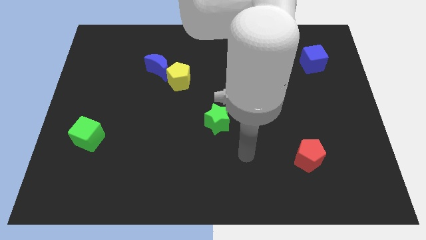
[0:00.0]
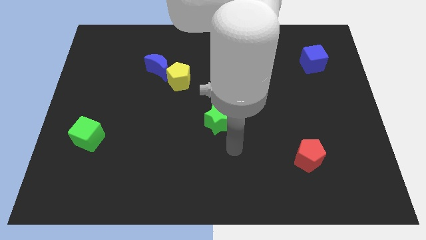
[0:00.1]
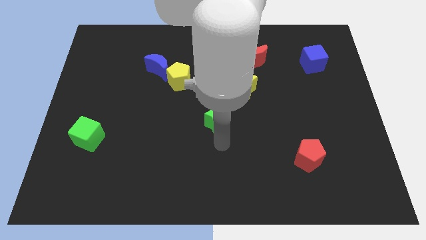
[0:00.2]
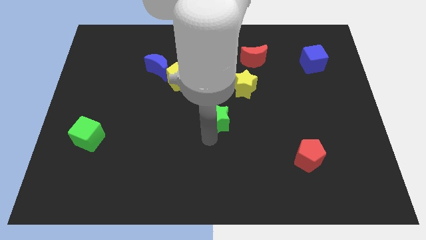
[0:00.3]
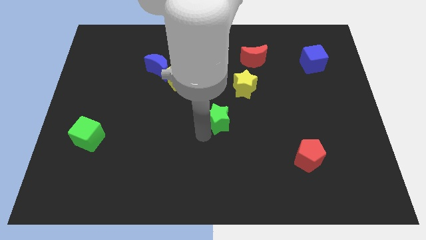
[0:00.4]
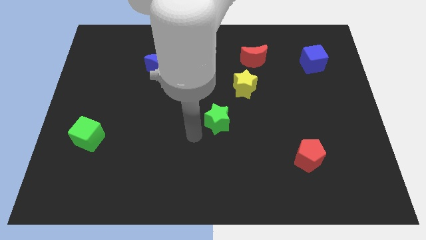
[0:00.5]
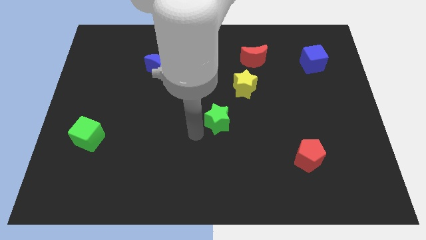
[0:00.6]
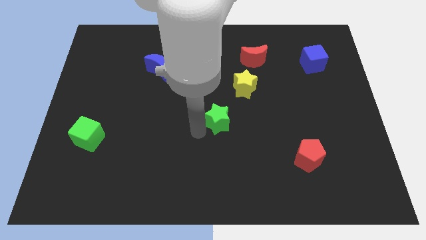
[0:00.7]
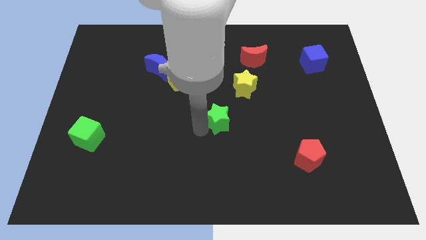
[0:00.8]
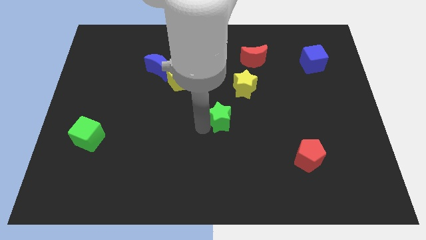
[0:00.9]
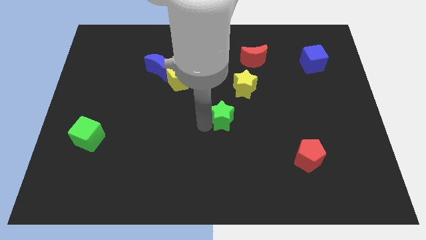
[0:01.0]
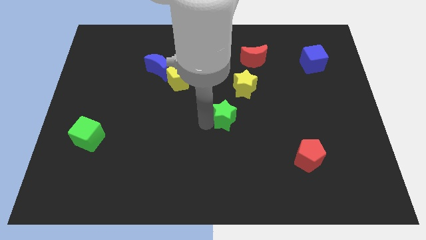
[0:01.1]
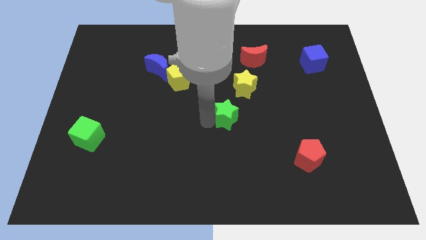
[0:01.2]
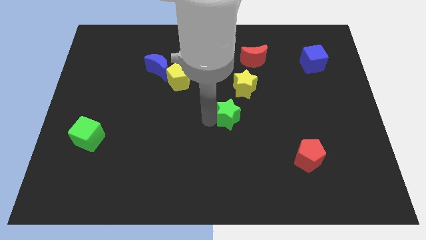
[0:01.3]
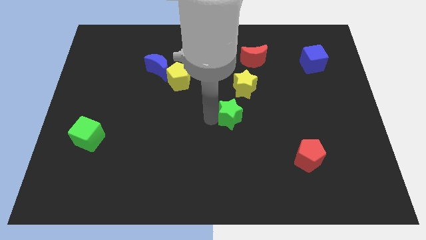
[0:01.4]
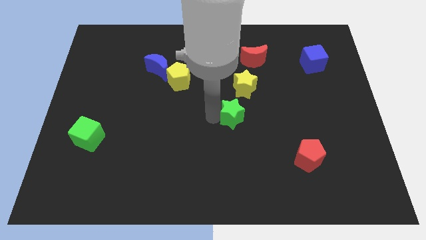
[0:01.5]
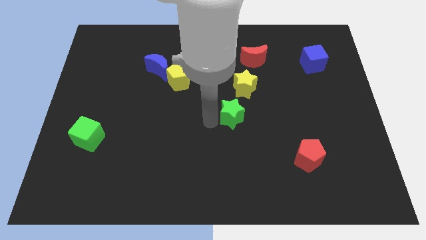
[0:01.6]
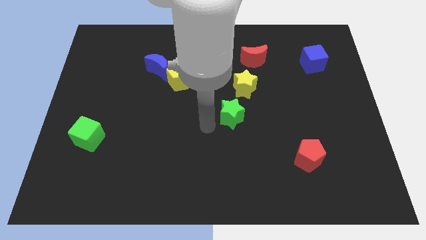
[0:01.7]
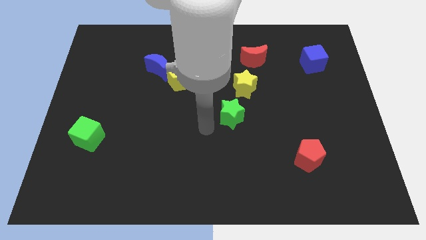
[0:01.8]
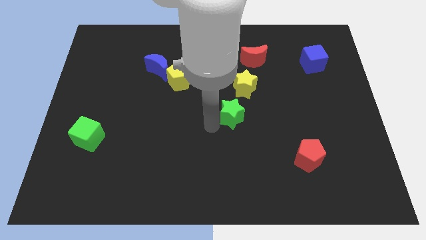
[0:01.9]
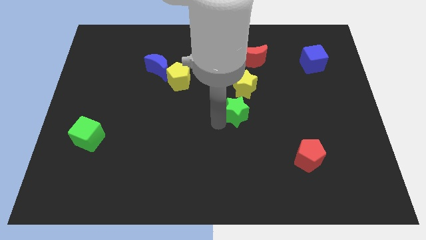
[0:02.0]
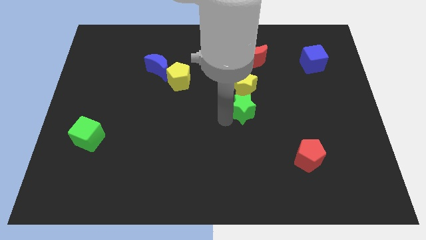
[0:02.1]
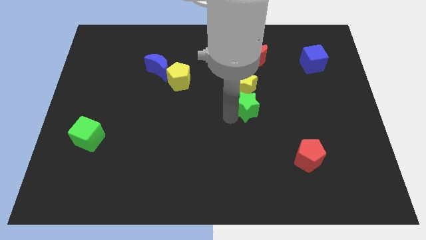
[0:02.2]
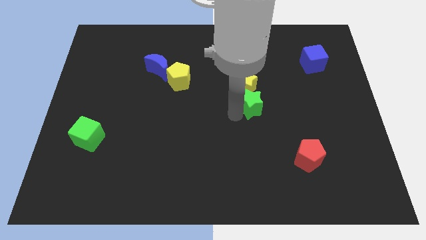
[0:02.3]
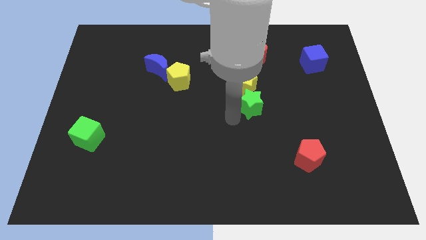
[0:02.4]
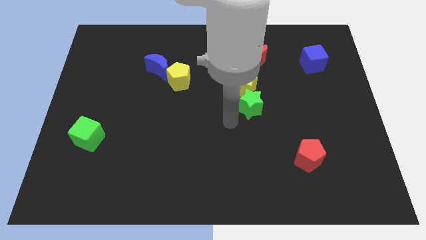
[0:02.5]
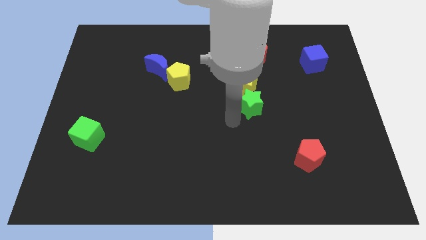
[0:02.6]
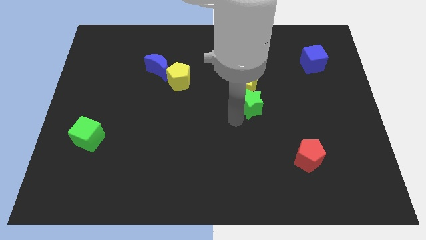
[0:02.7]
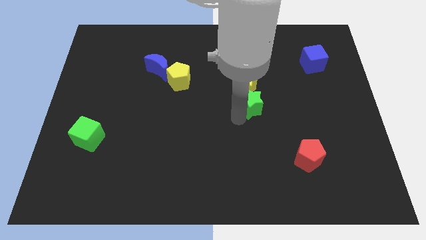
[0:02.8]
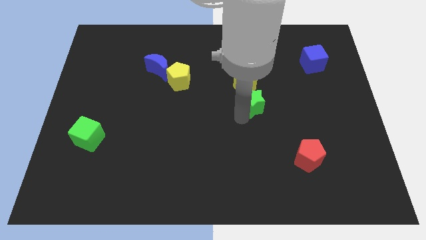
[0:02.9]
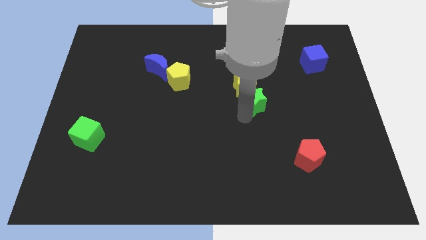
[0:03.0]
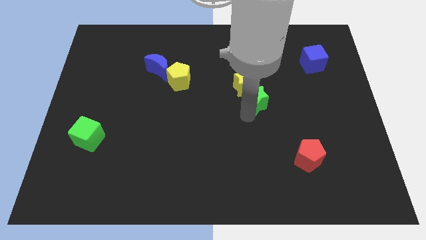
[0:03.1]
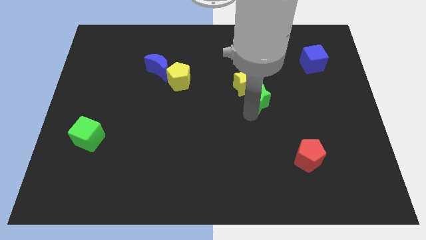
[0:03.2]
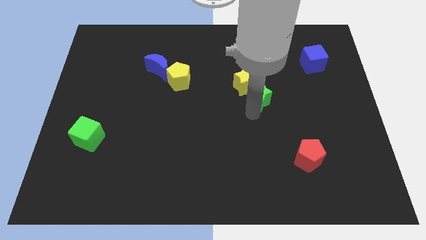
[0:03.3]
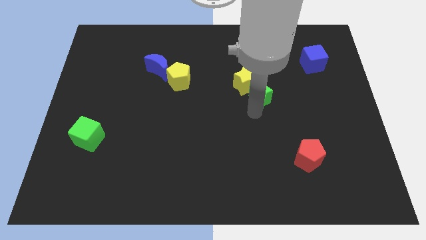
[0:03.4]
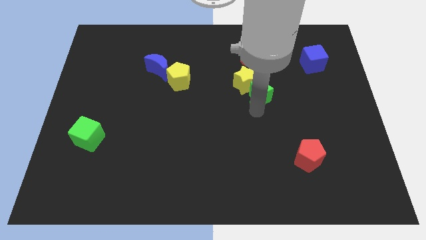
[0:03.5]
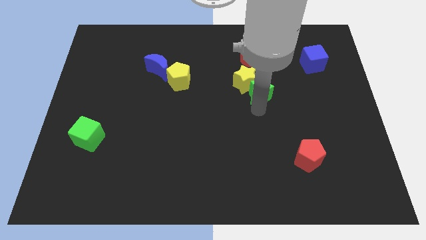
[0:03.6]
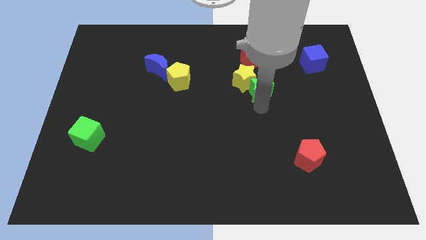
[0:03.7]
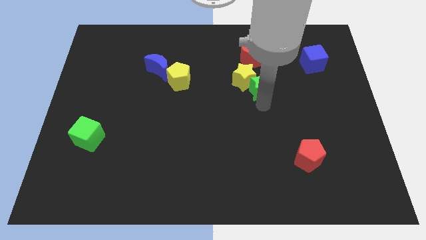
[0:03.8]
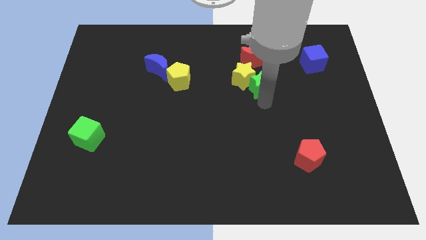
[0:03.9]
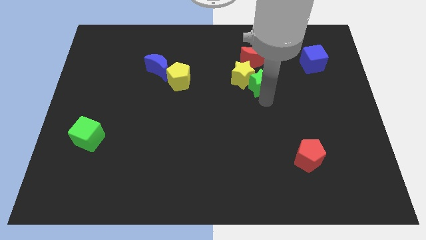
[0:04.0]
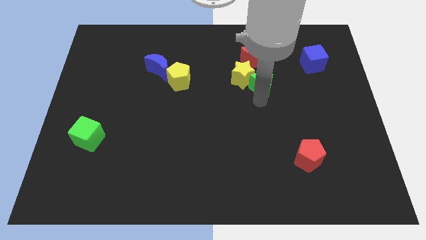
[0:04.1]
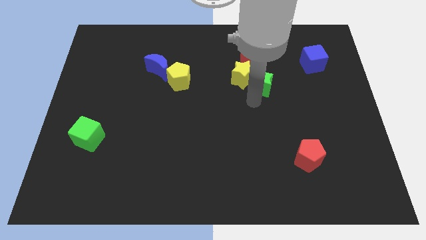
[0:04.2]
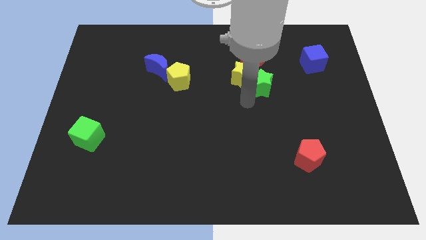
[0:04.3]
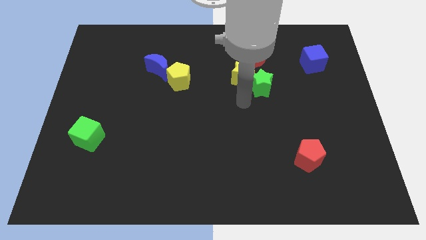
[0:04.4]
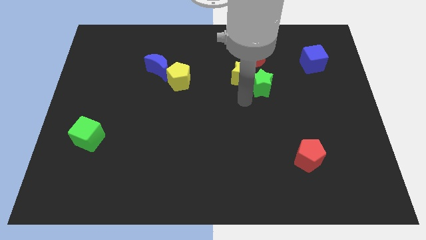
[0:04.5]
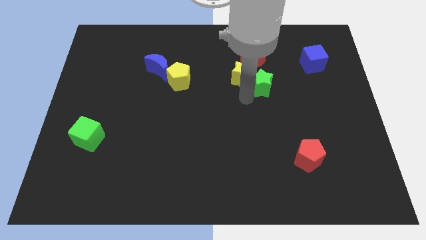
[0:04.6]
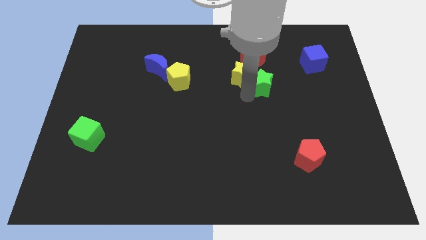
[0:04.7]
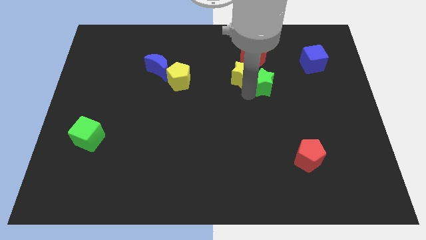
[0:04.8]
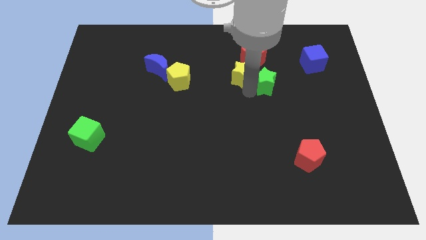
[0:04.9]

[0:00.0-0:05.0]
push the green star diagonally down and to the right of the red moon

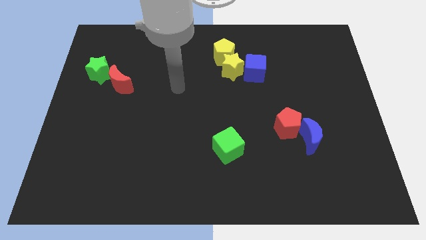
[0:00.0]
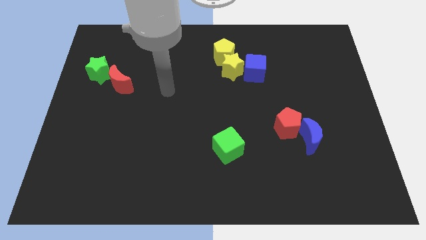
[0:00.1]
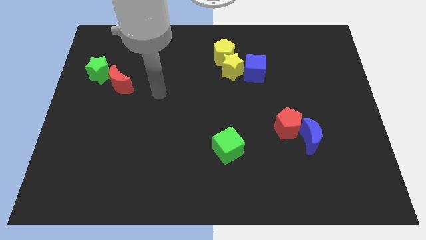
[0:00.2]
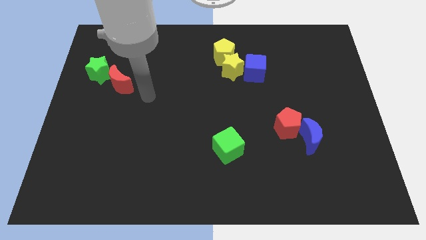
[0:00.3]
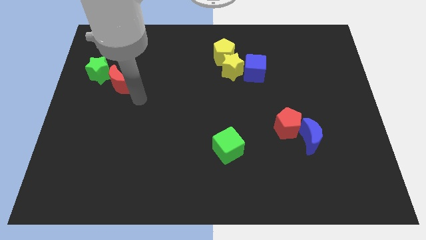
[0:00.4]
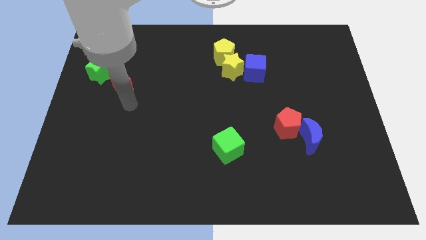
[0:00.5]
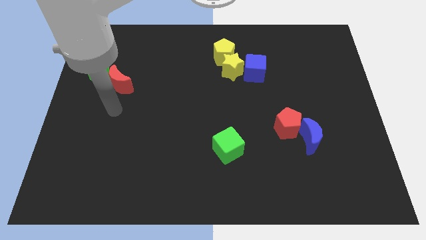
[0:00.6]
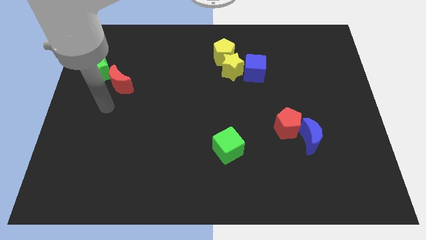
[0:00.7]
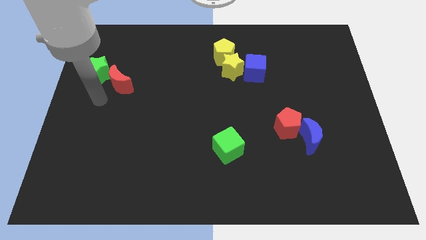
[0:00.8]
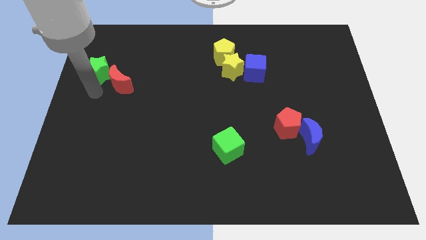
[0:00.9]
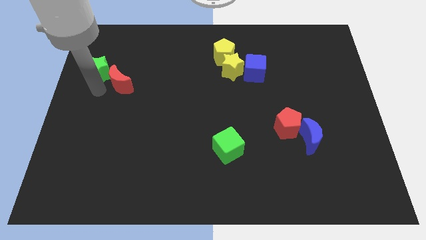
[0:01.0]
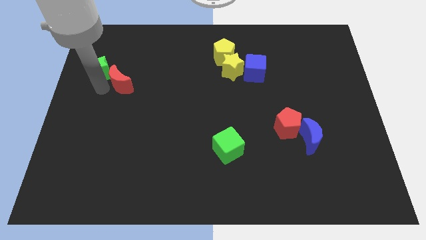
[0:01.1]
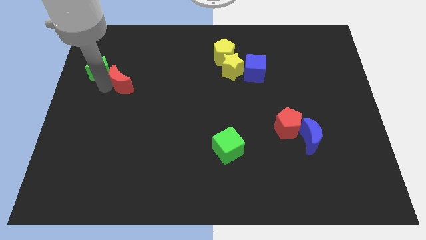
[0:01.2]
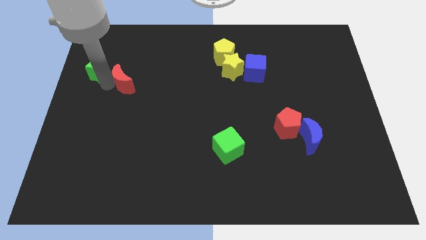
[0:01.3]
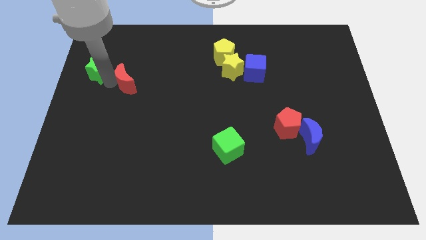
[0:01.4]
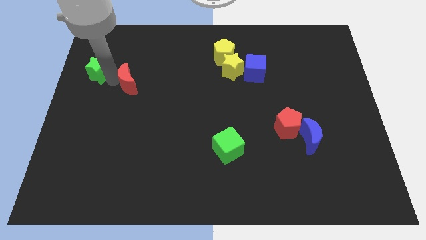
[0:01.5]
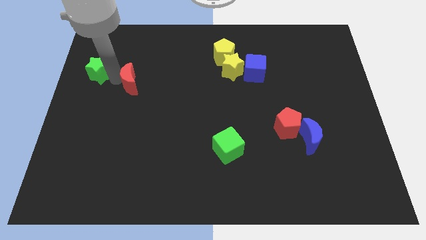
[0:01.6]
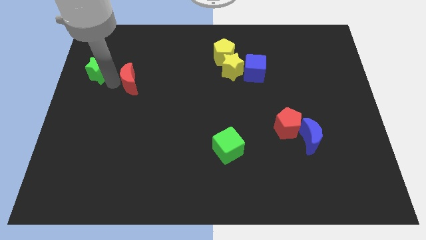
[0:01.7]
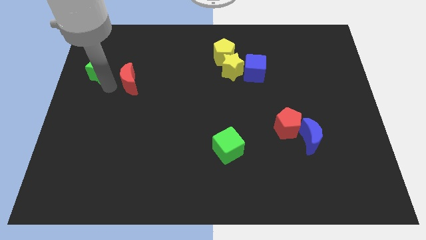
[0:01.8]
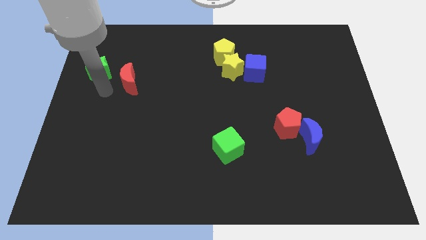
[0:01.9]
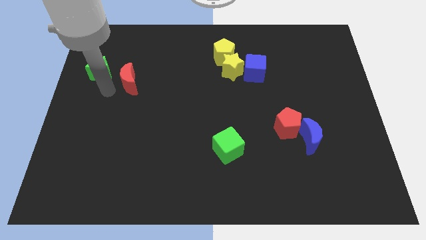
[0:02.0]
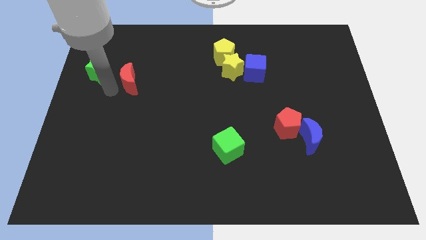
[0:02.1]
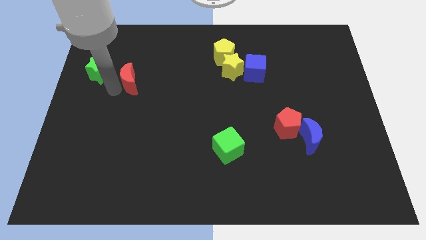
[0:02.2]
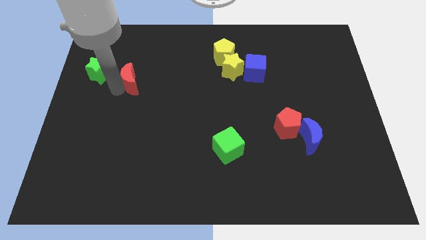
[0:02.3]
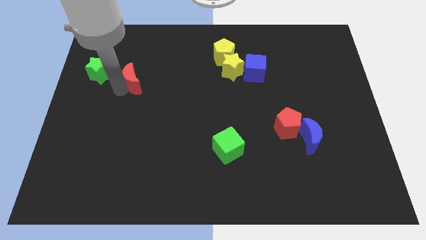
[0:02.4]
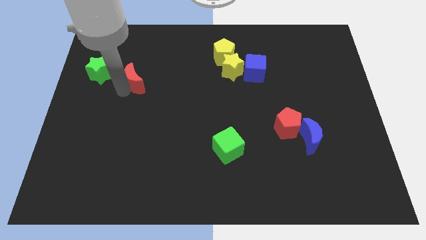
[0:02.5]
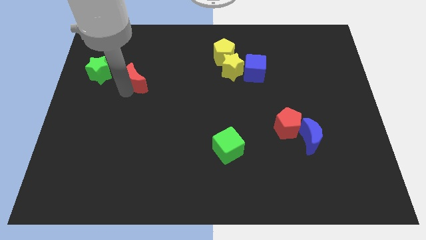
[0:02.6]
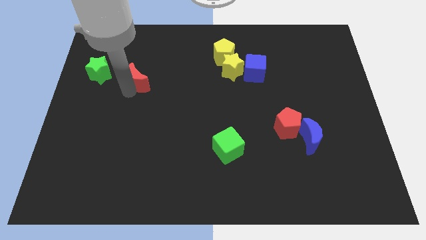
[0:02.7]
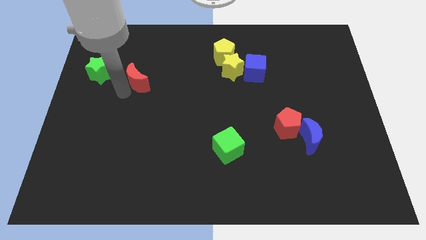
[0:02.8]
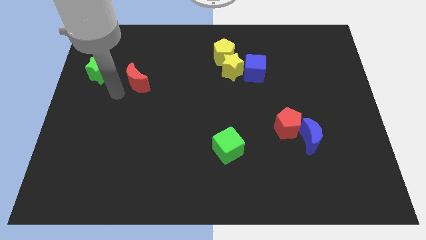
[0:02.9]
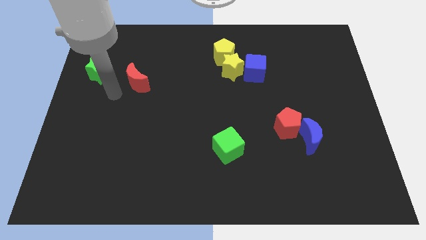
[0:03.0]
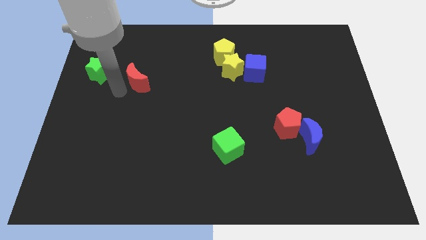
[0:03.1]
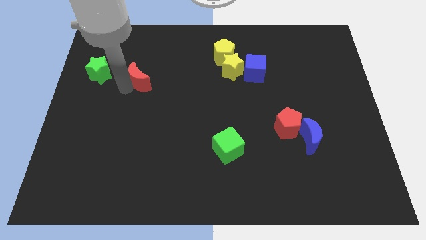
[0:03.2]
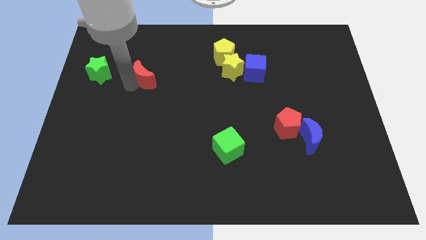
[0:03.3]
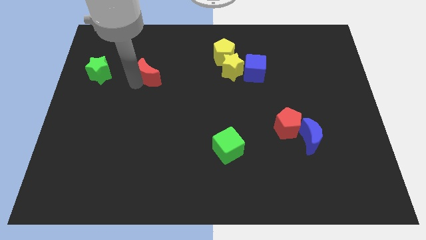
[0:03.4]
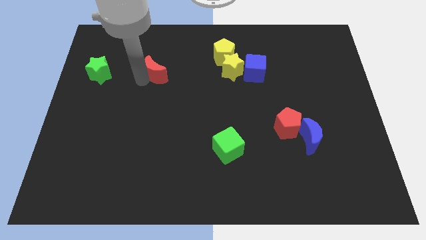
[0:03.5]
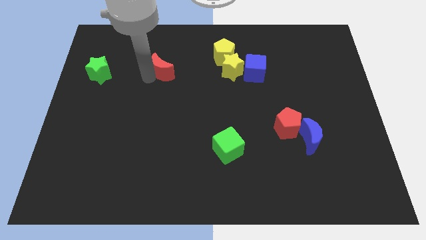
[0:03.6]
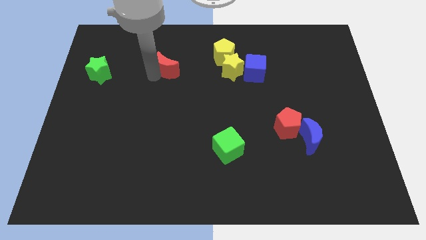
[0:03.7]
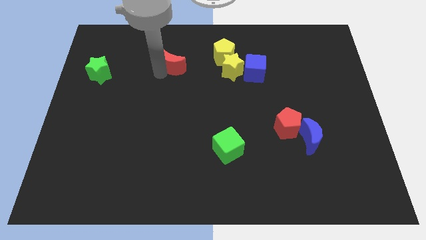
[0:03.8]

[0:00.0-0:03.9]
move the red moon left of the yellow pentagon
